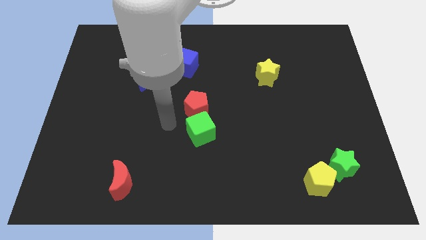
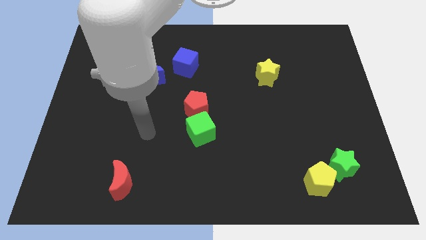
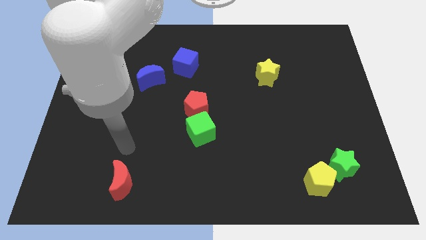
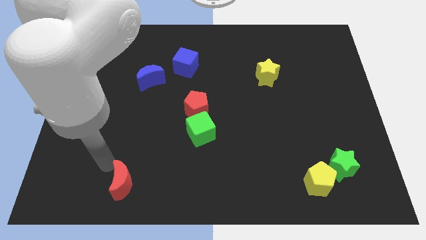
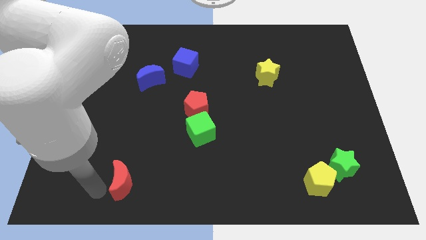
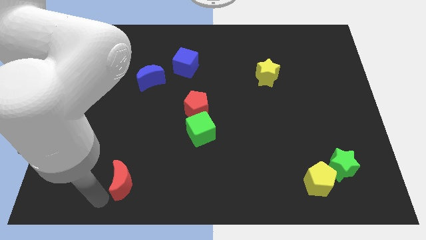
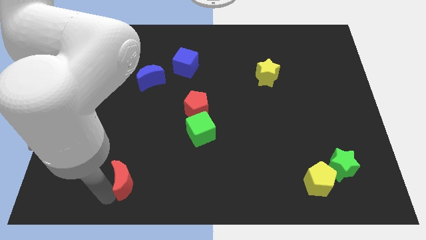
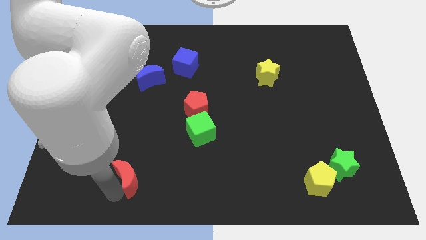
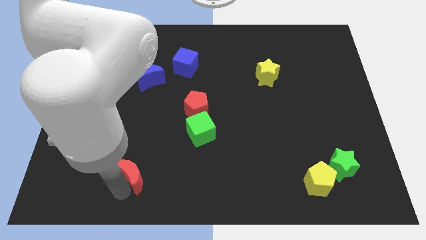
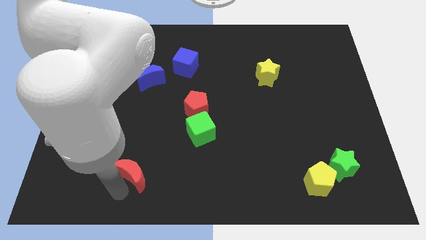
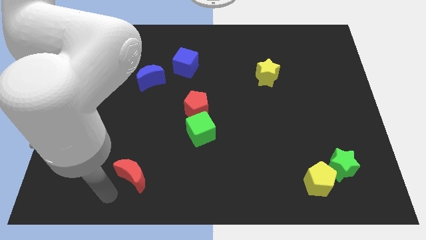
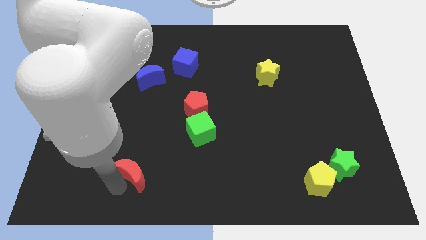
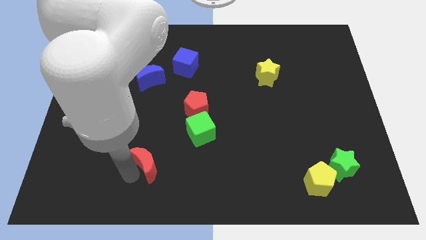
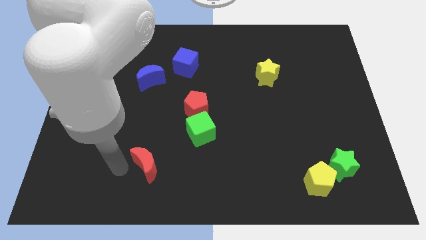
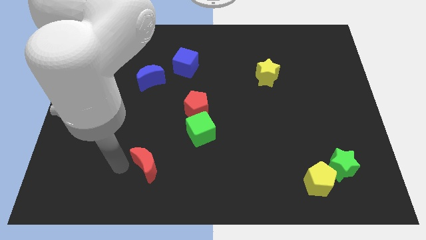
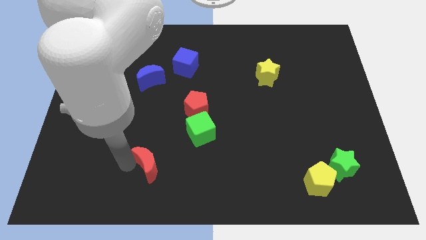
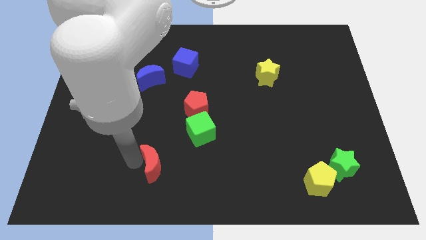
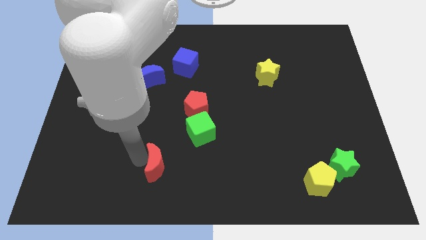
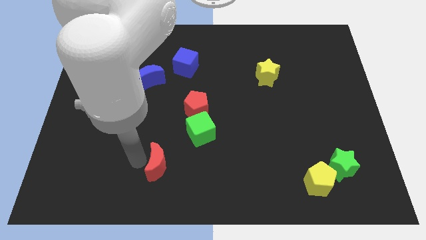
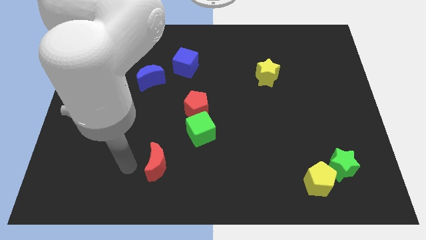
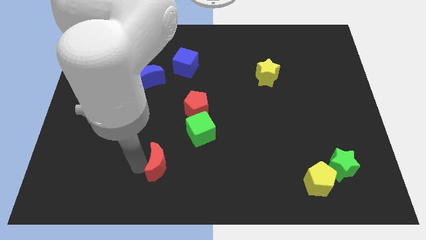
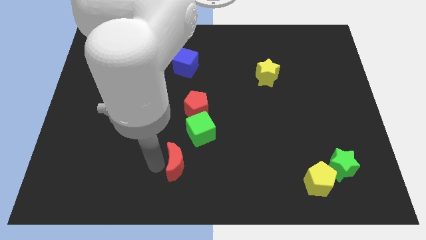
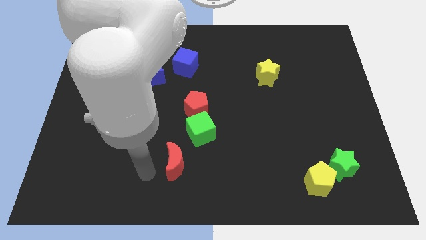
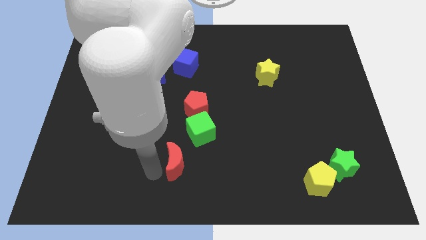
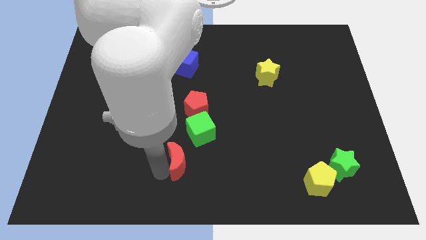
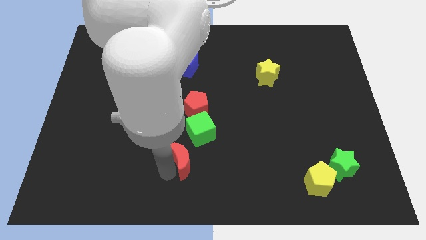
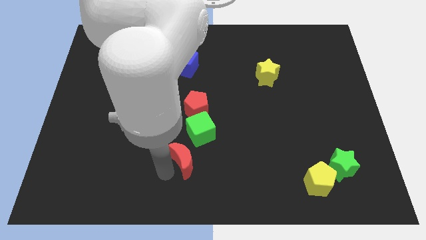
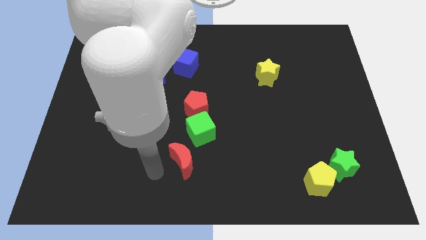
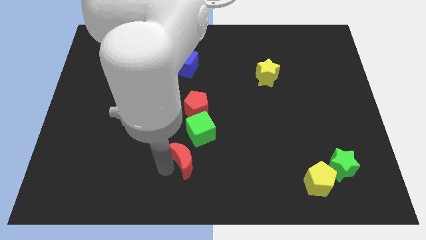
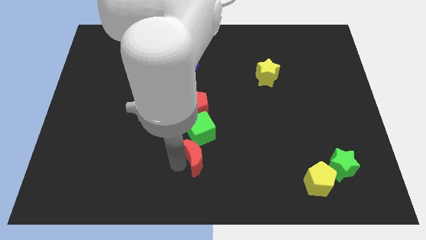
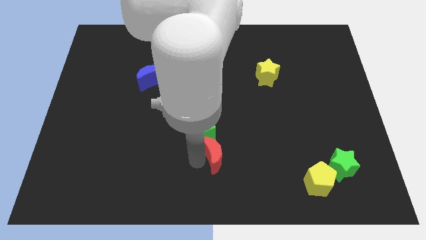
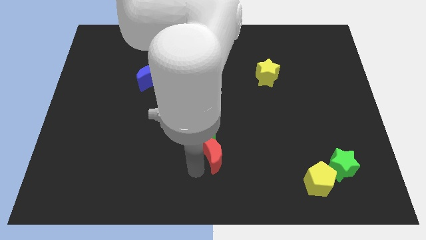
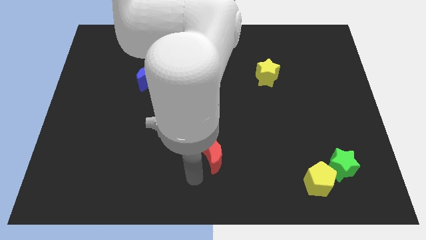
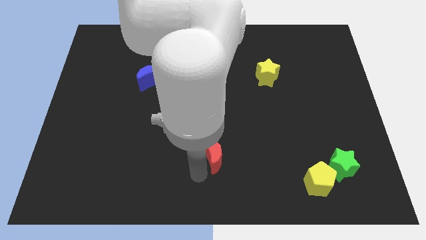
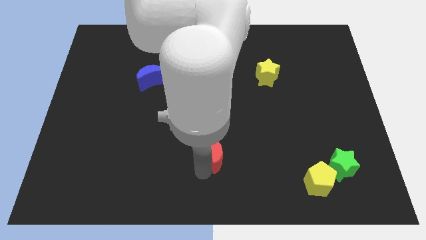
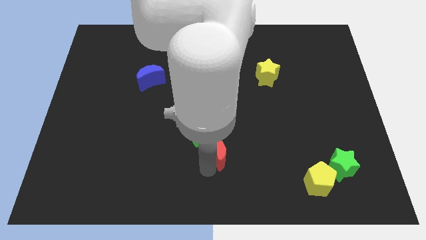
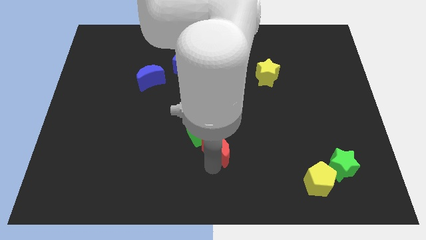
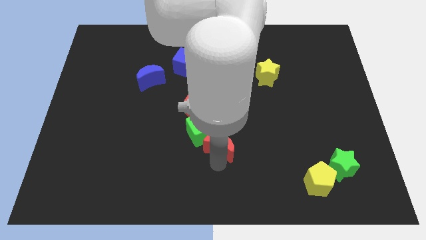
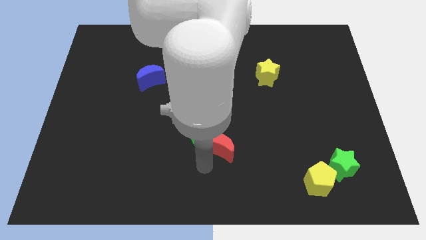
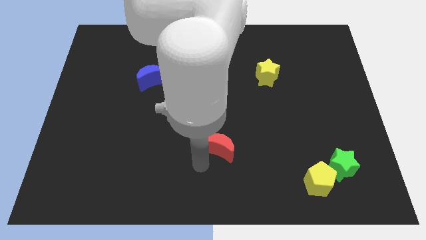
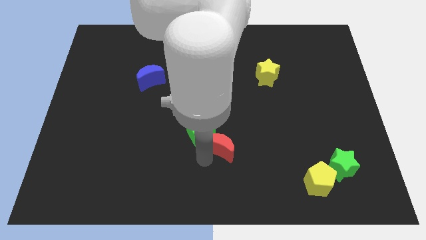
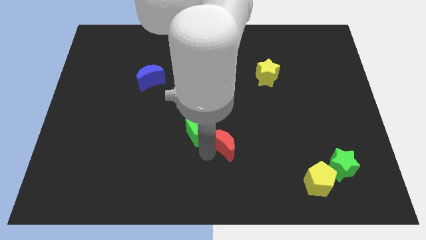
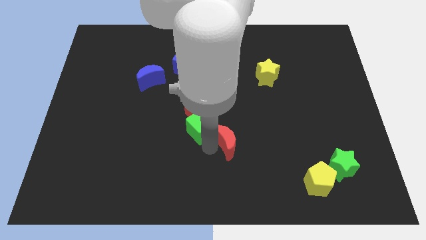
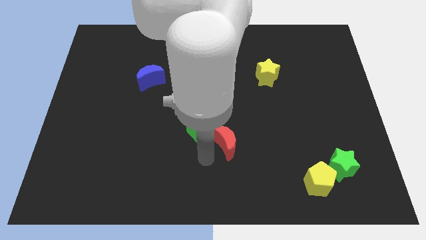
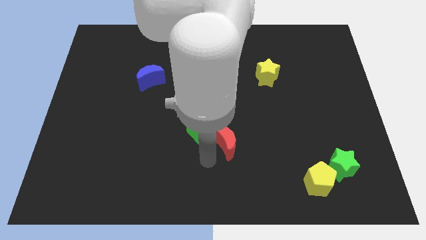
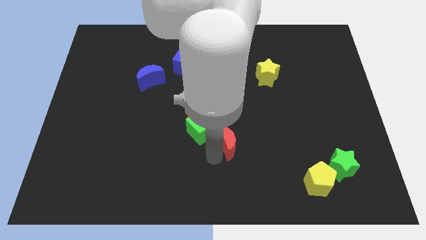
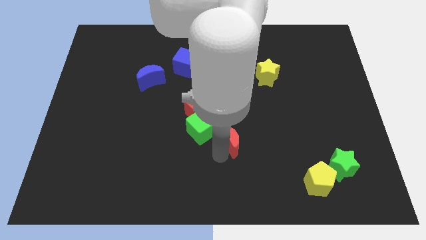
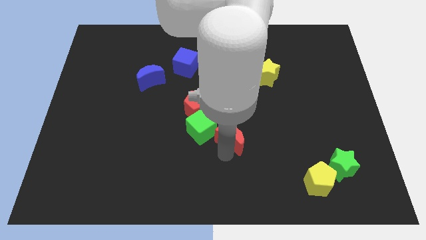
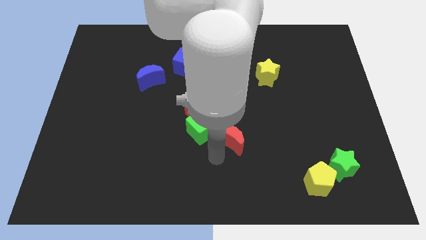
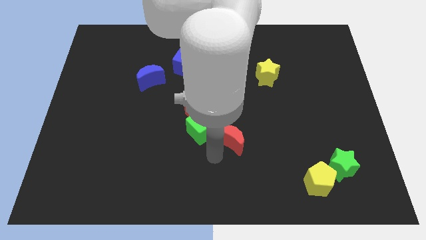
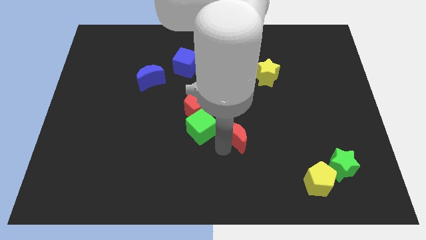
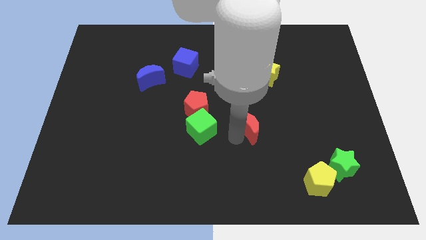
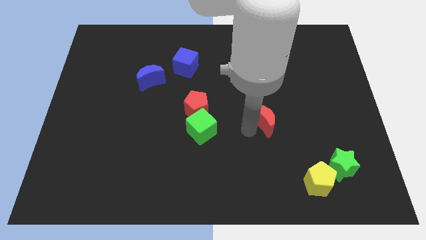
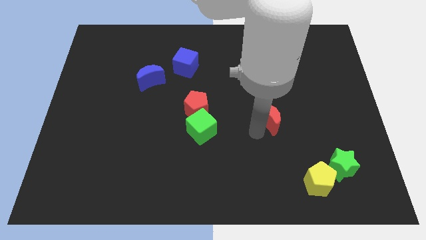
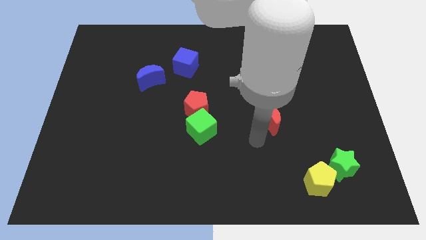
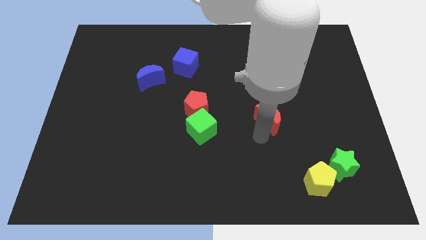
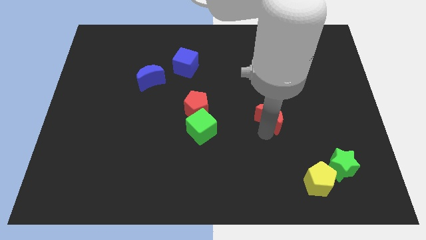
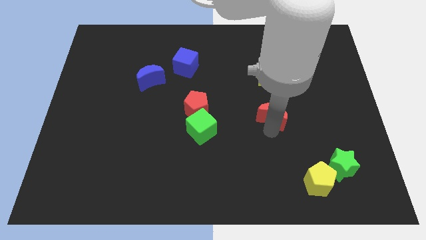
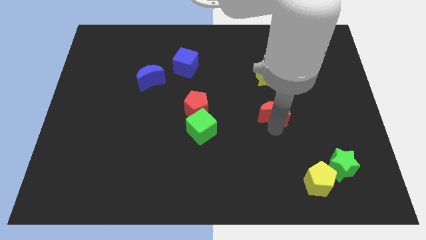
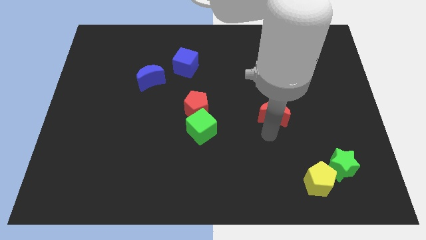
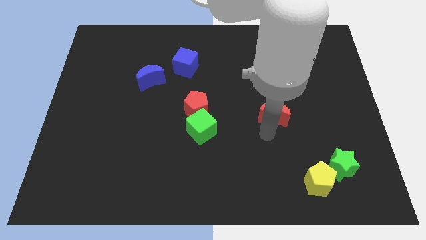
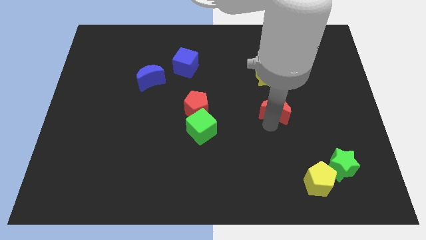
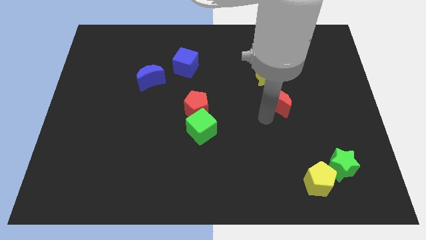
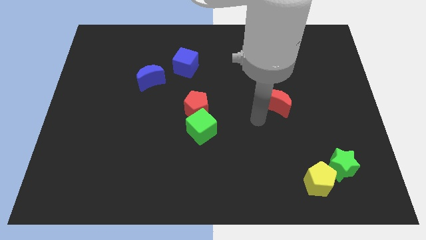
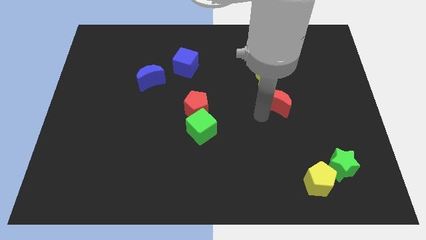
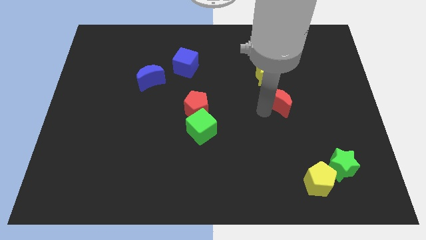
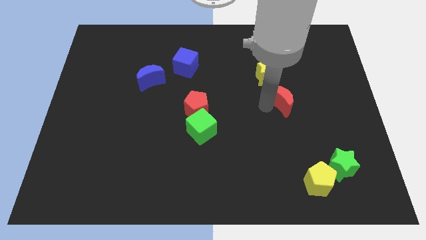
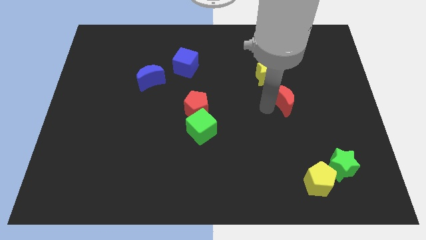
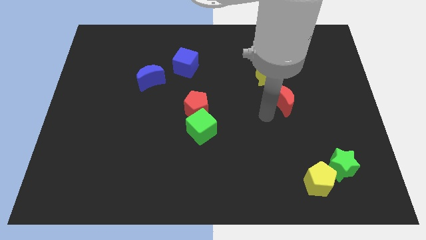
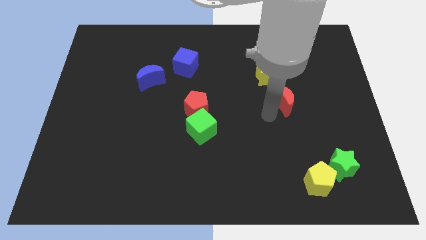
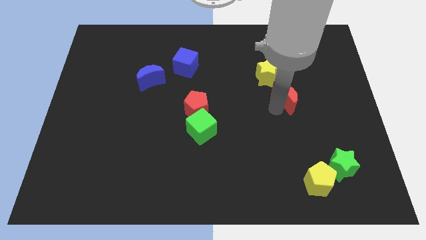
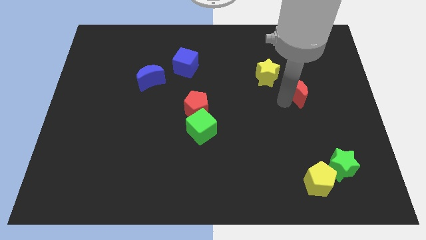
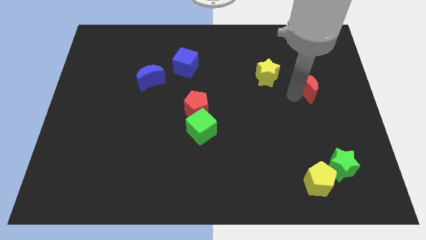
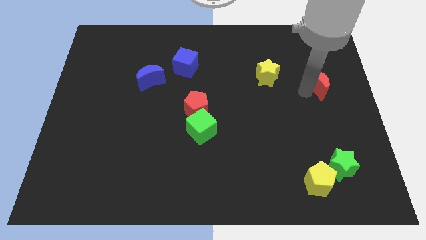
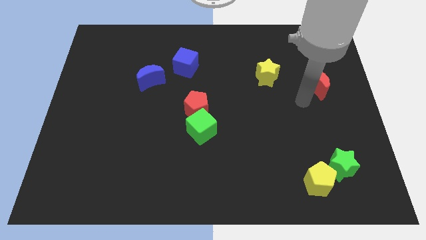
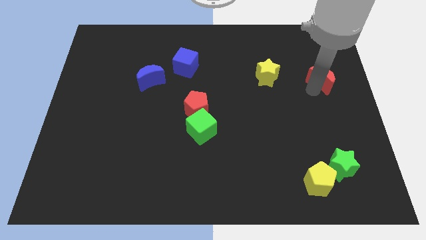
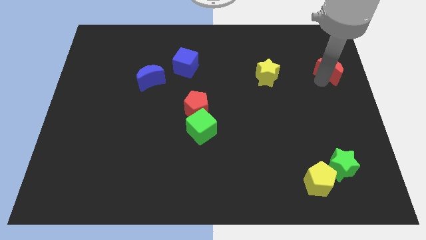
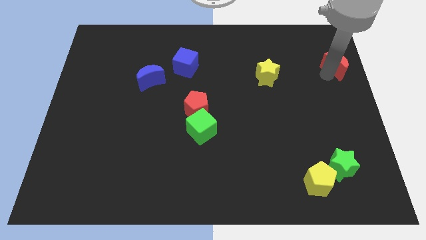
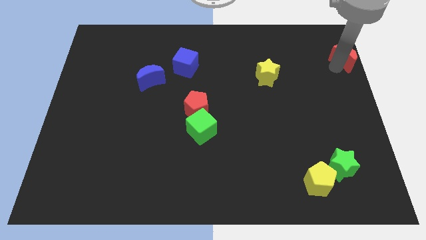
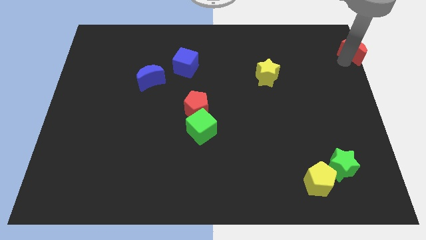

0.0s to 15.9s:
push the red moon to the top right
